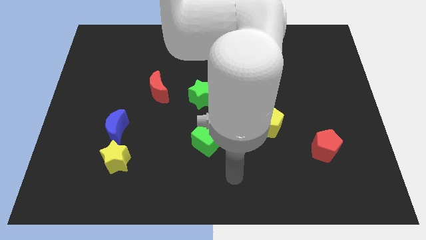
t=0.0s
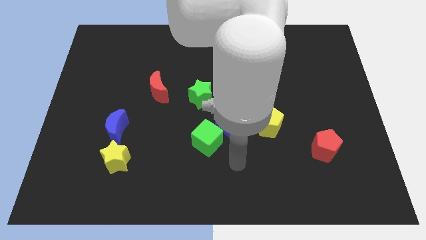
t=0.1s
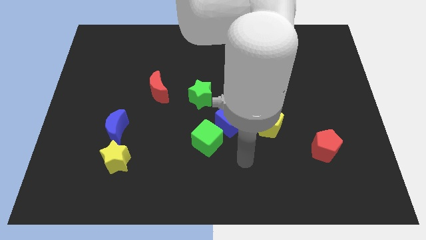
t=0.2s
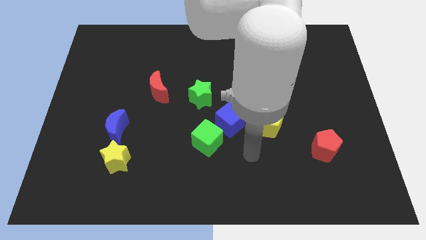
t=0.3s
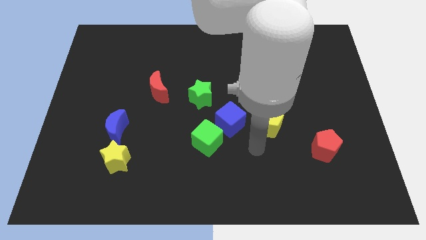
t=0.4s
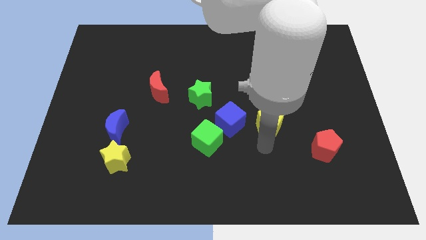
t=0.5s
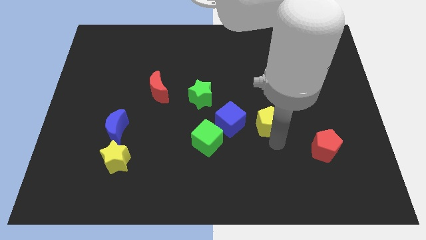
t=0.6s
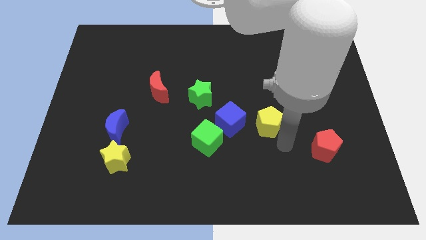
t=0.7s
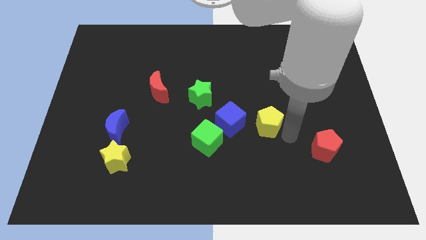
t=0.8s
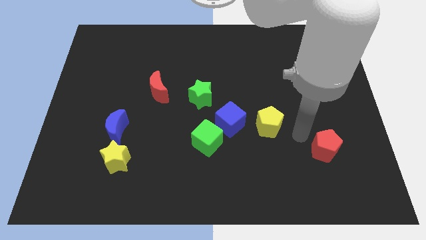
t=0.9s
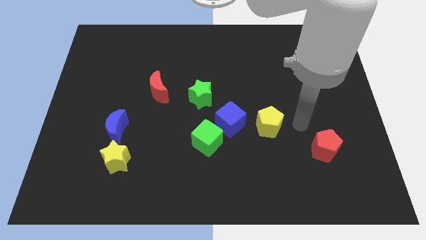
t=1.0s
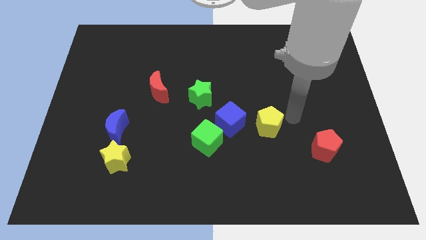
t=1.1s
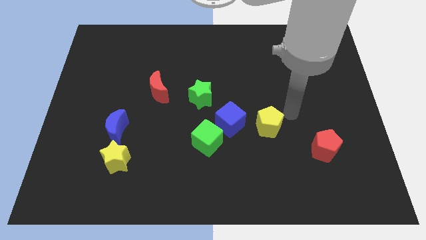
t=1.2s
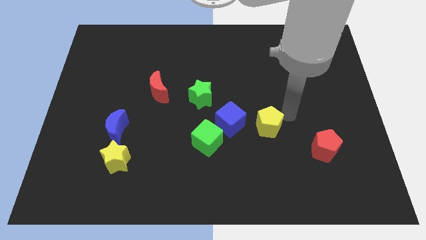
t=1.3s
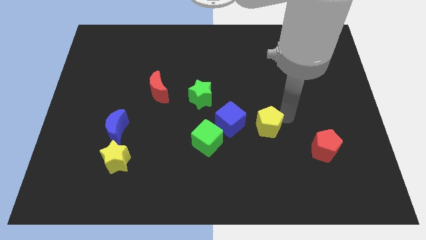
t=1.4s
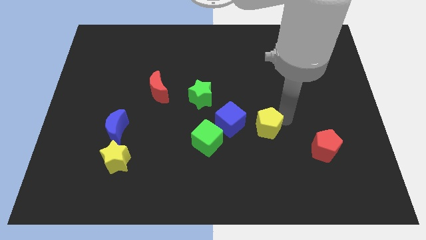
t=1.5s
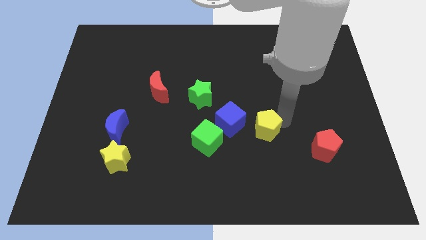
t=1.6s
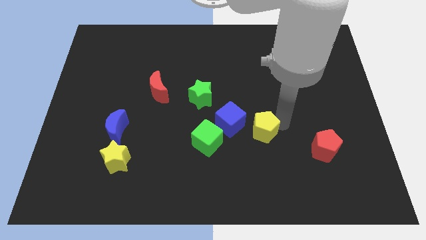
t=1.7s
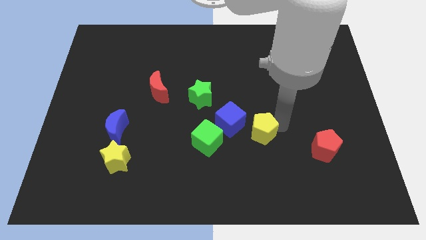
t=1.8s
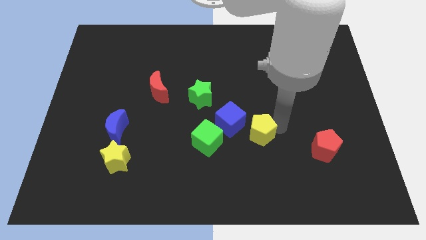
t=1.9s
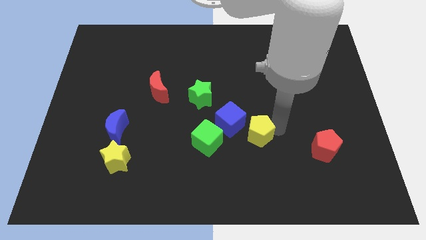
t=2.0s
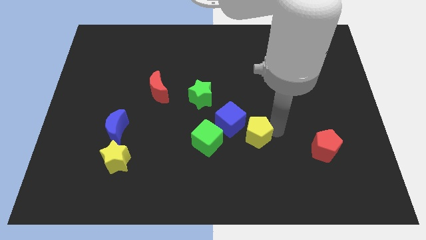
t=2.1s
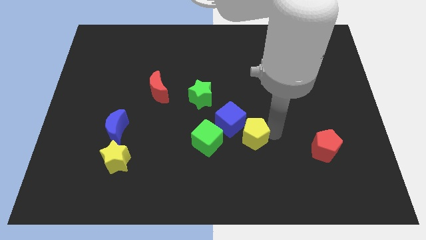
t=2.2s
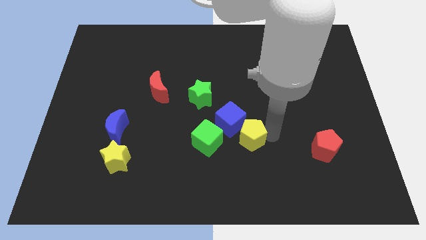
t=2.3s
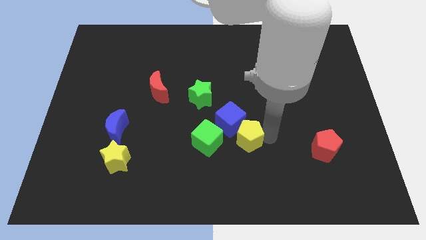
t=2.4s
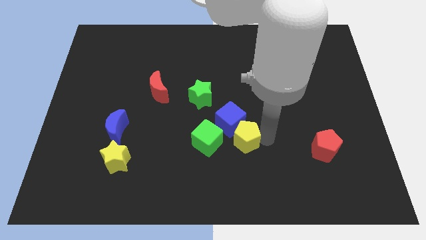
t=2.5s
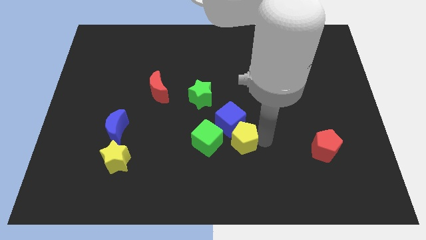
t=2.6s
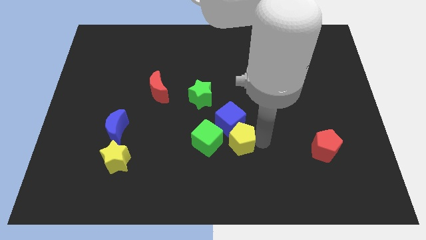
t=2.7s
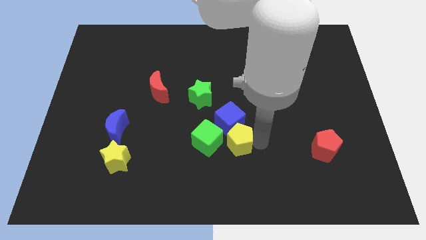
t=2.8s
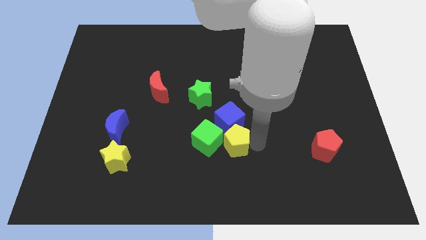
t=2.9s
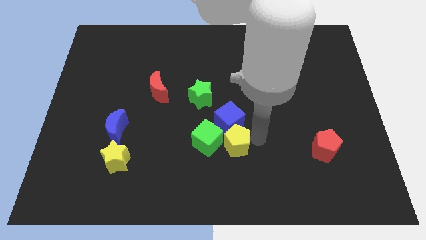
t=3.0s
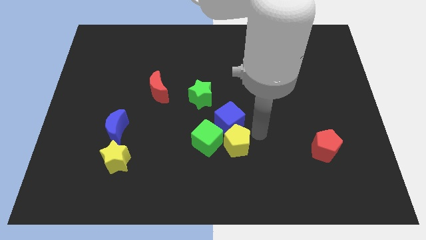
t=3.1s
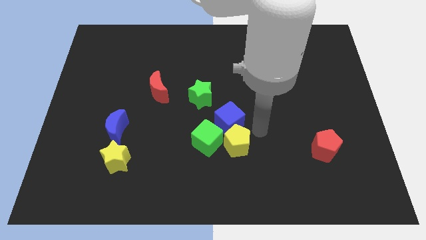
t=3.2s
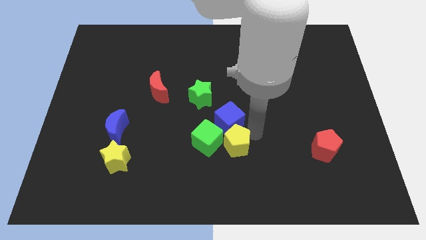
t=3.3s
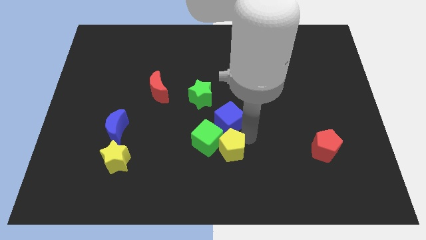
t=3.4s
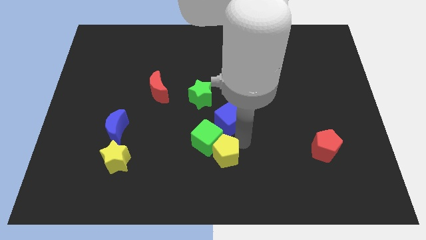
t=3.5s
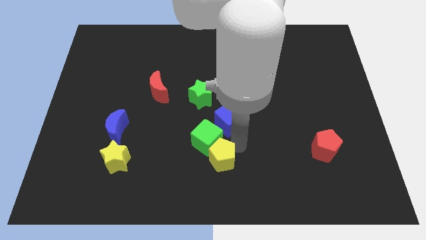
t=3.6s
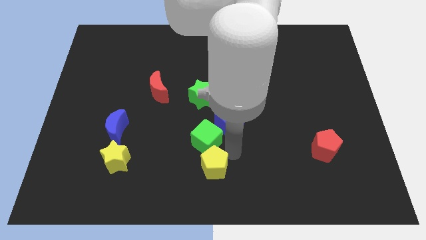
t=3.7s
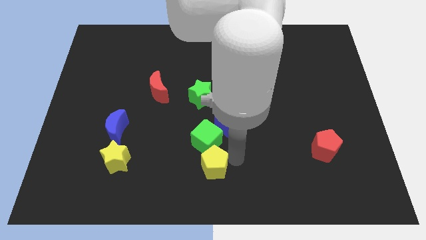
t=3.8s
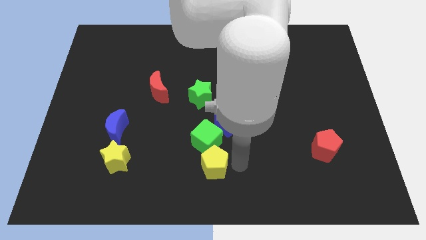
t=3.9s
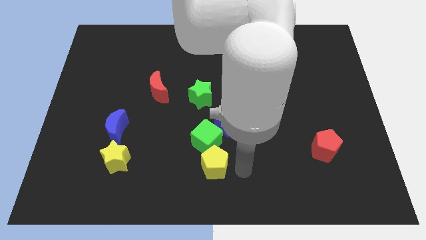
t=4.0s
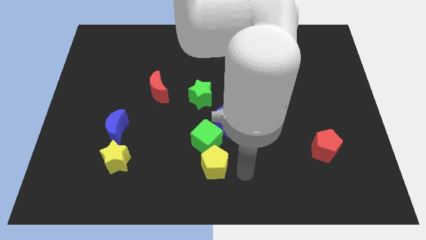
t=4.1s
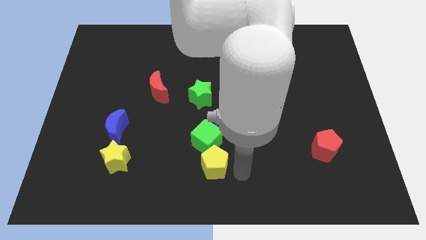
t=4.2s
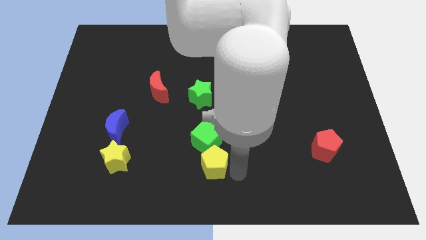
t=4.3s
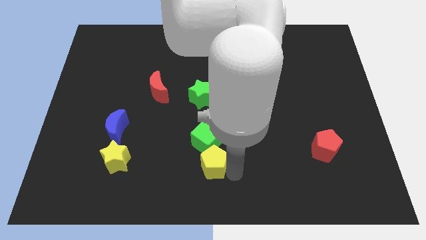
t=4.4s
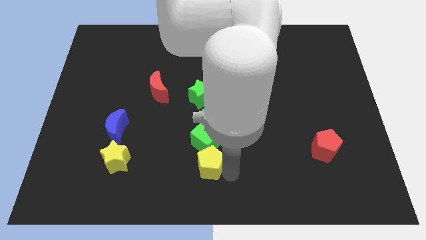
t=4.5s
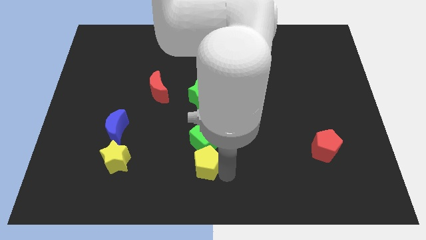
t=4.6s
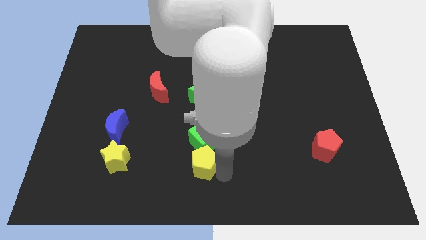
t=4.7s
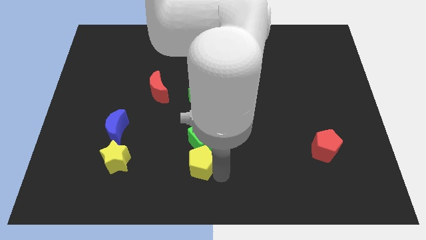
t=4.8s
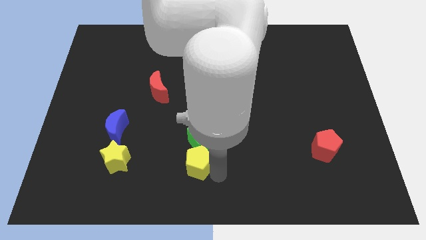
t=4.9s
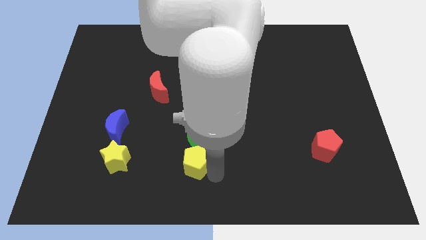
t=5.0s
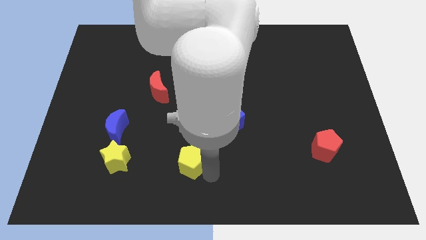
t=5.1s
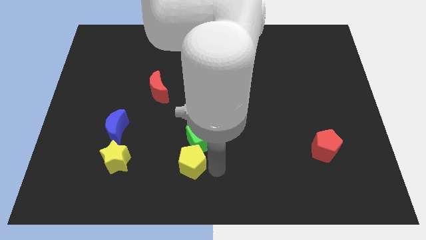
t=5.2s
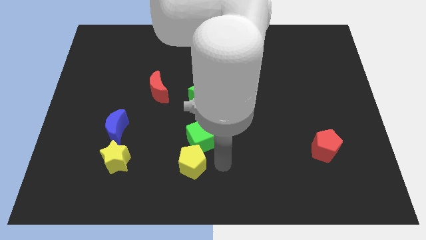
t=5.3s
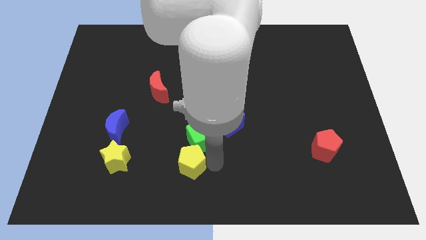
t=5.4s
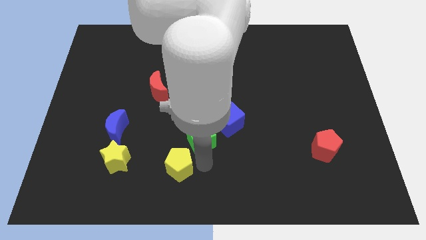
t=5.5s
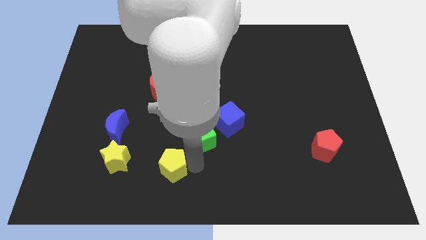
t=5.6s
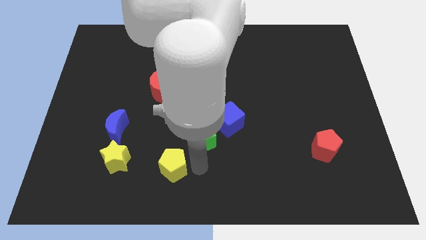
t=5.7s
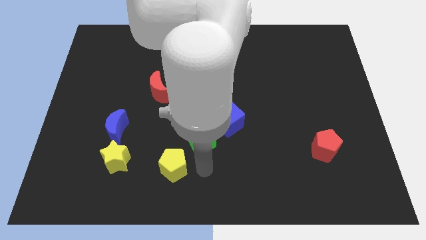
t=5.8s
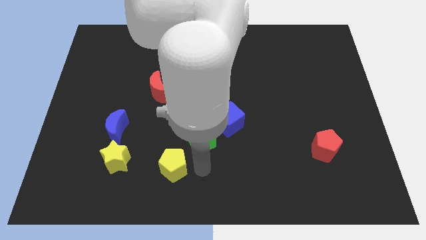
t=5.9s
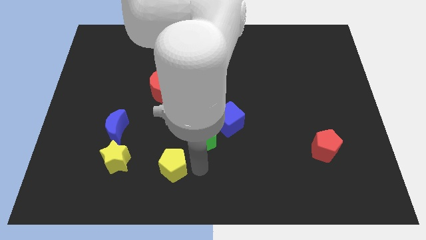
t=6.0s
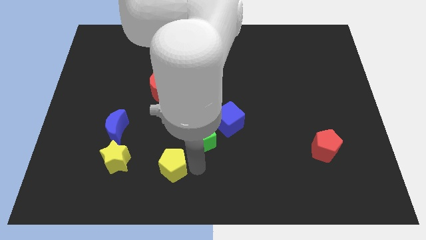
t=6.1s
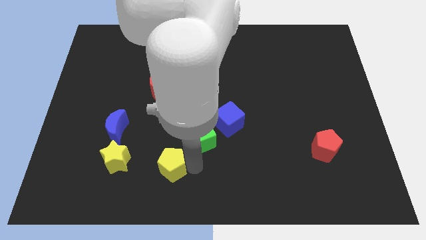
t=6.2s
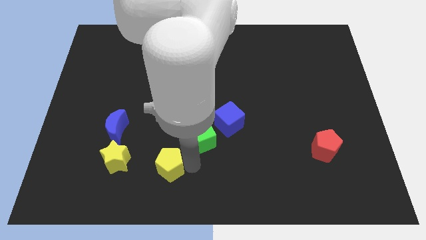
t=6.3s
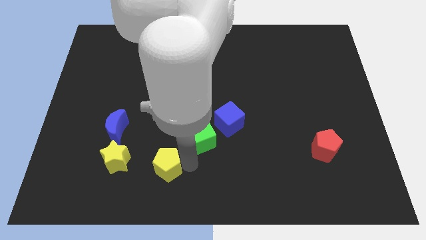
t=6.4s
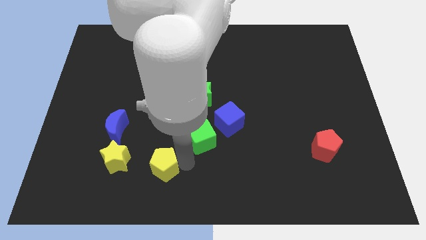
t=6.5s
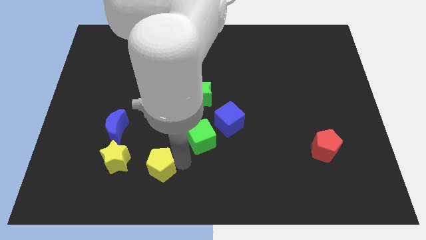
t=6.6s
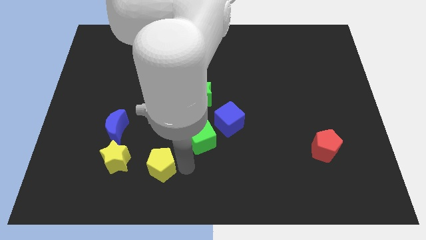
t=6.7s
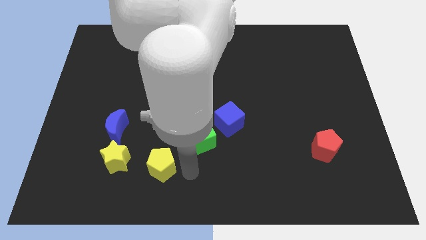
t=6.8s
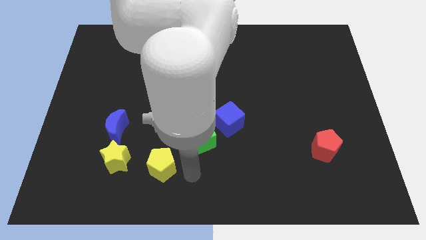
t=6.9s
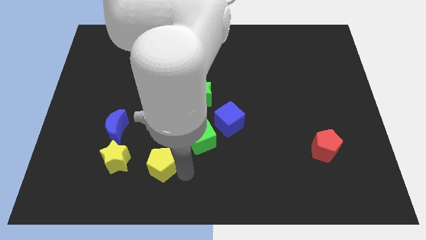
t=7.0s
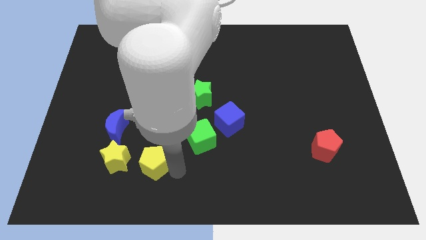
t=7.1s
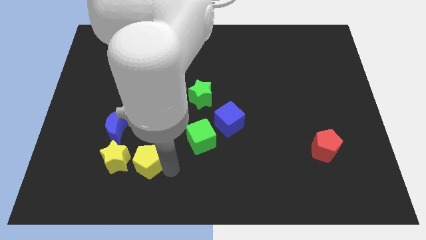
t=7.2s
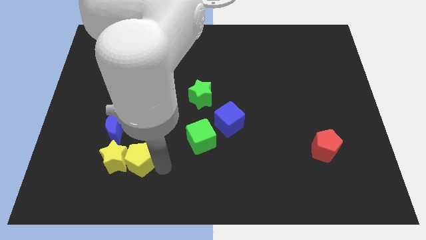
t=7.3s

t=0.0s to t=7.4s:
slide the yellow pentagon to the yellow star
